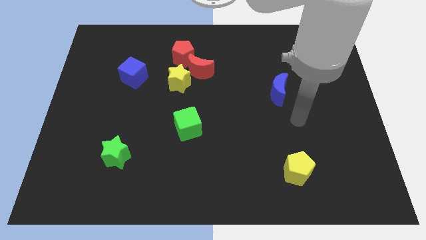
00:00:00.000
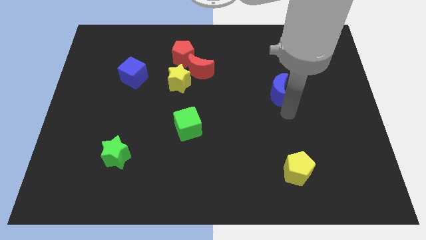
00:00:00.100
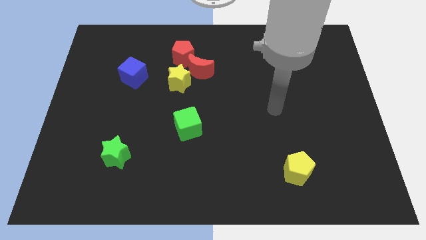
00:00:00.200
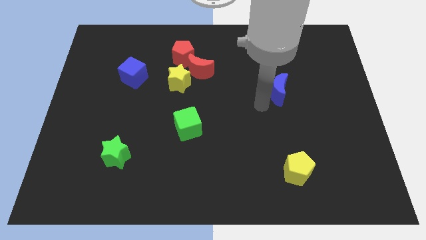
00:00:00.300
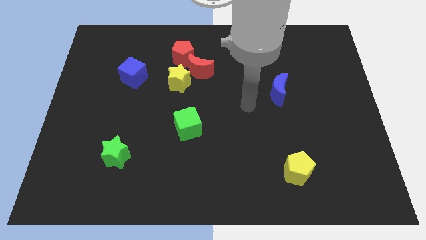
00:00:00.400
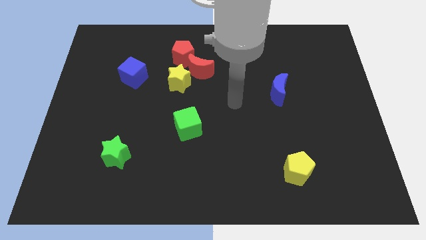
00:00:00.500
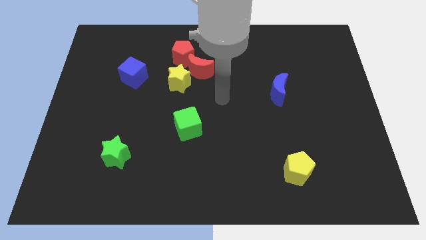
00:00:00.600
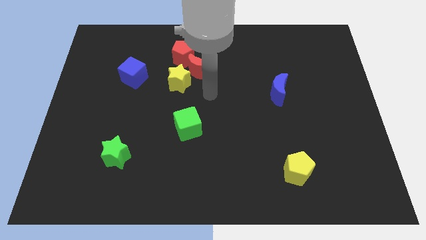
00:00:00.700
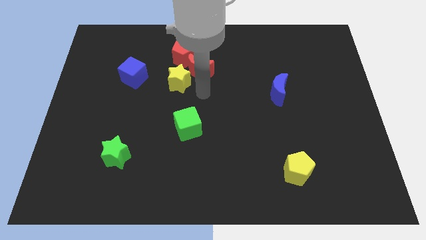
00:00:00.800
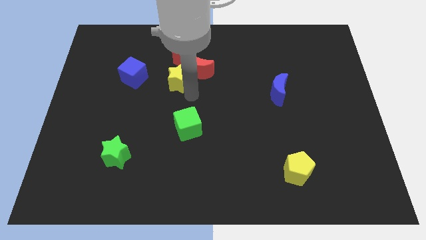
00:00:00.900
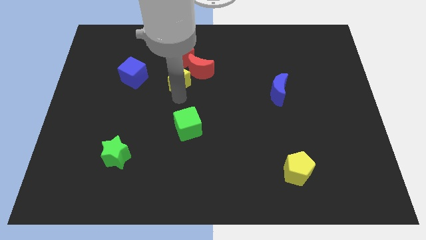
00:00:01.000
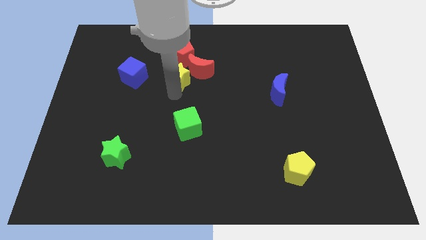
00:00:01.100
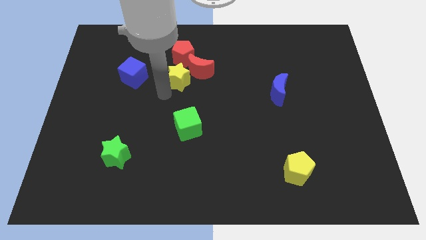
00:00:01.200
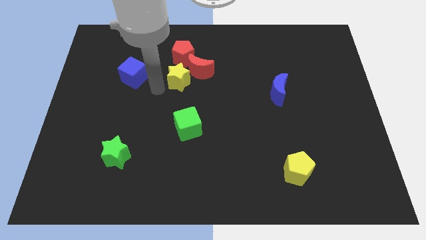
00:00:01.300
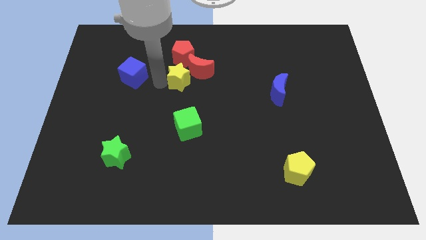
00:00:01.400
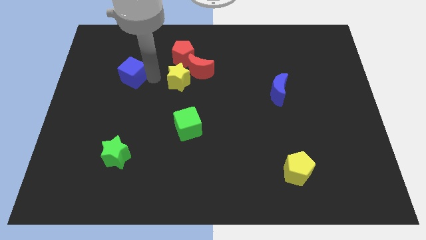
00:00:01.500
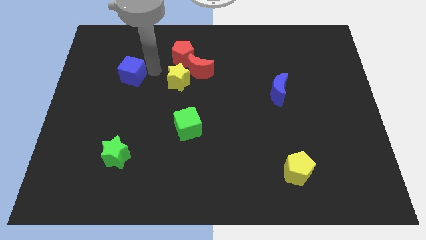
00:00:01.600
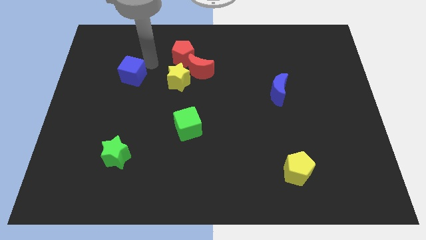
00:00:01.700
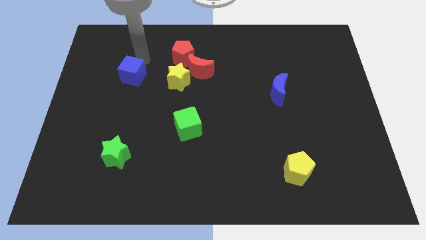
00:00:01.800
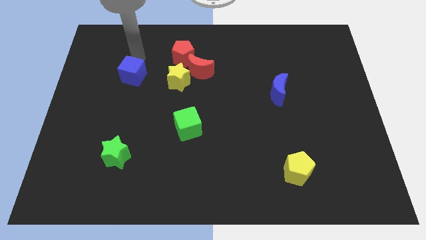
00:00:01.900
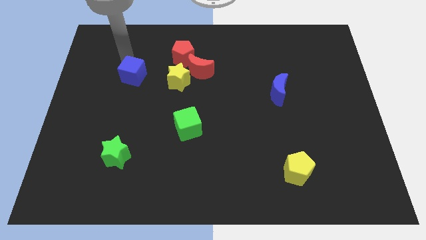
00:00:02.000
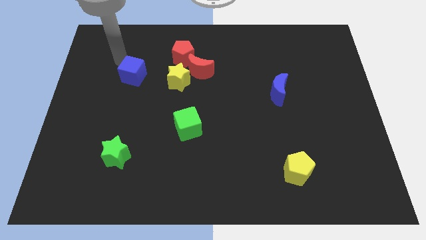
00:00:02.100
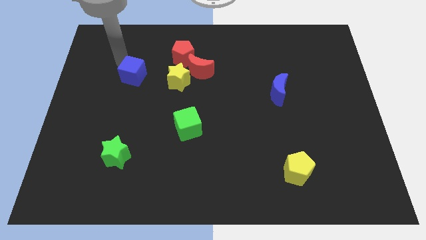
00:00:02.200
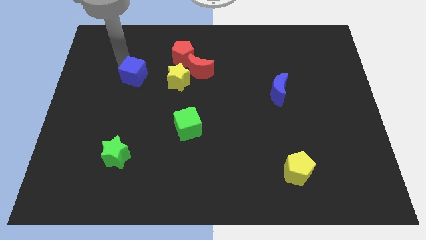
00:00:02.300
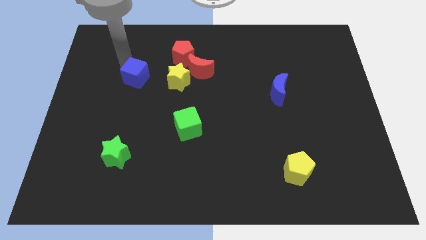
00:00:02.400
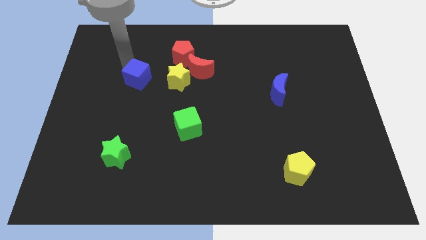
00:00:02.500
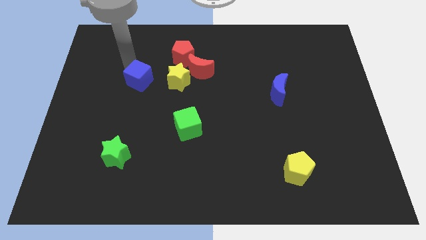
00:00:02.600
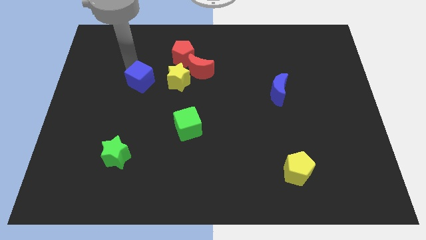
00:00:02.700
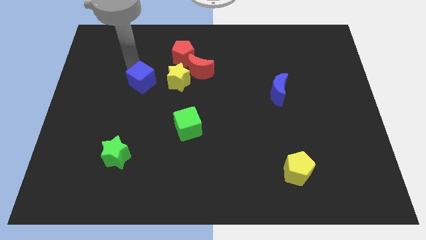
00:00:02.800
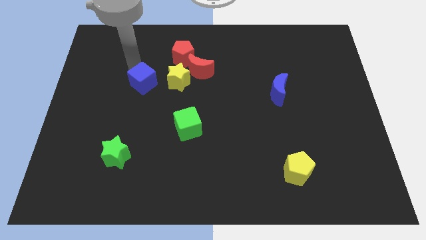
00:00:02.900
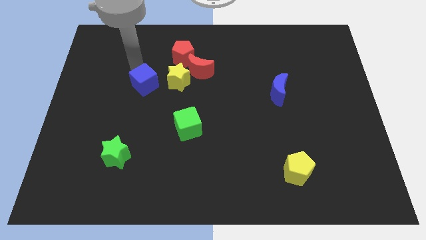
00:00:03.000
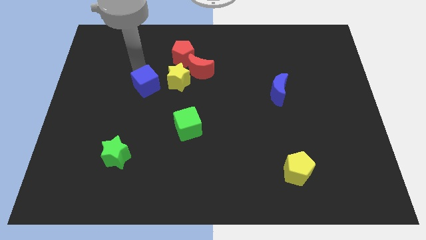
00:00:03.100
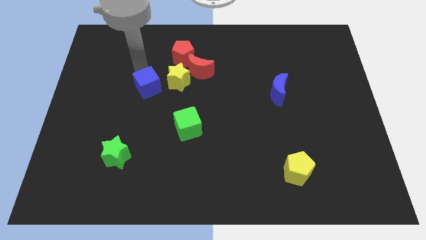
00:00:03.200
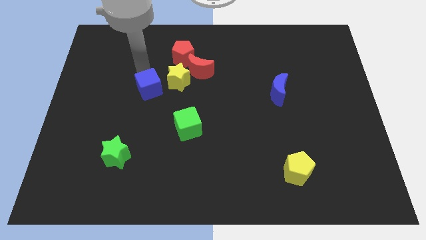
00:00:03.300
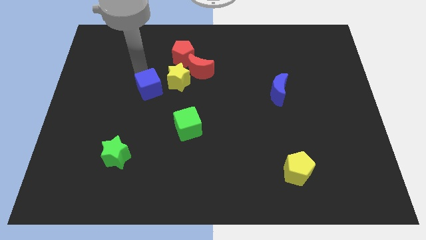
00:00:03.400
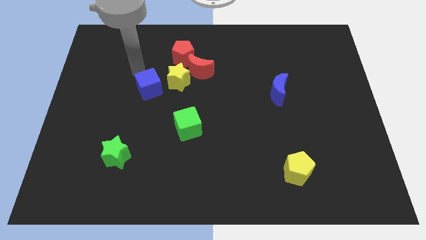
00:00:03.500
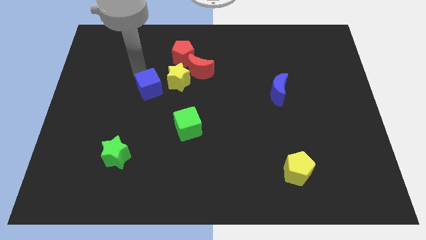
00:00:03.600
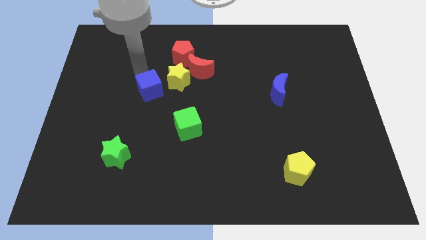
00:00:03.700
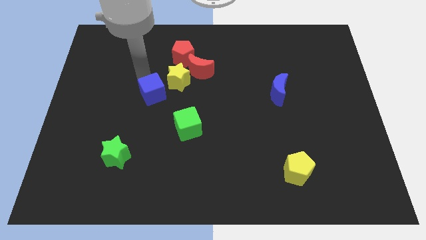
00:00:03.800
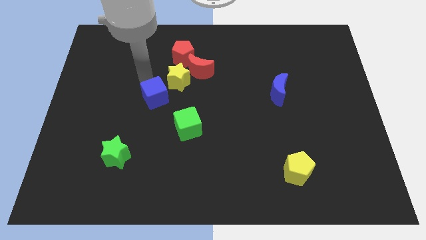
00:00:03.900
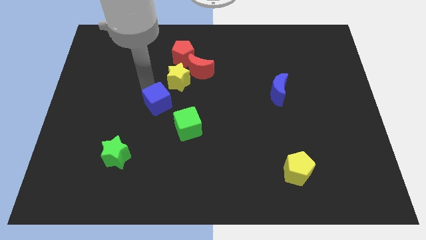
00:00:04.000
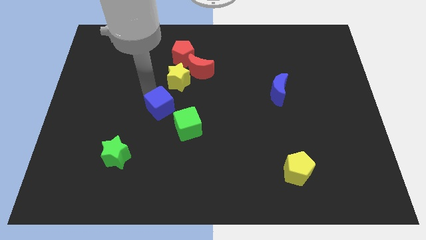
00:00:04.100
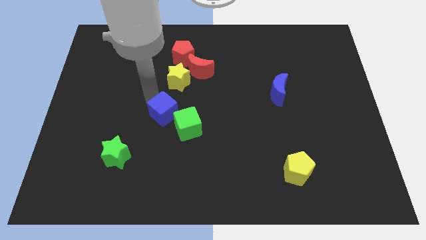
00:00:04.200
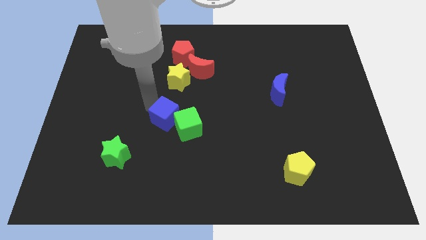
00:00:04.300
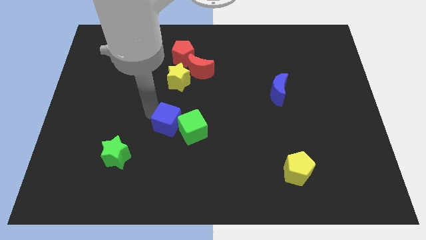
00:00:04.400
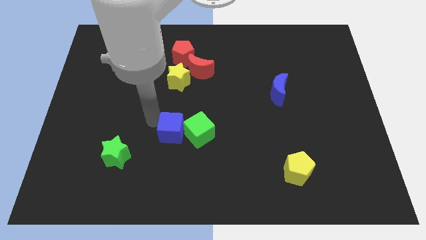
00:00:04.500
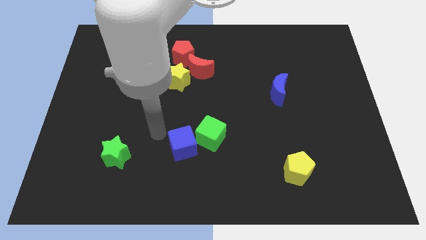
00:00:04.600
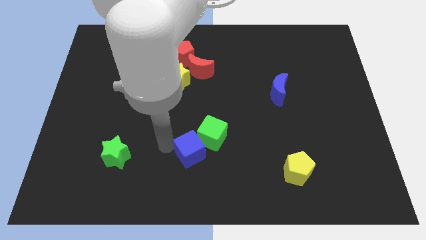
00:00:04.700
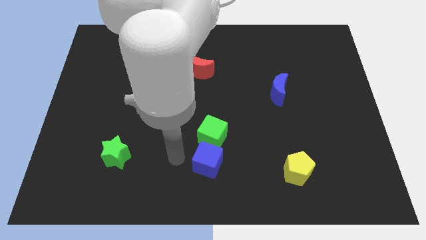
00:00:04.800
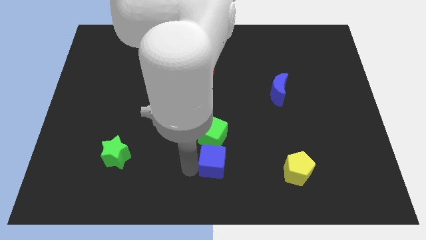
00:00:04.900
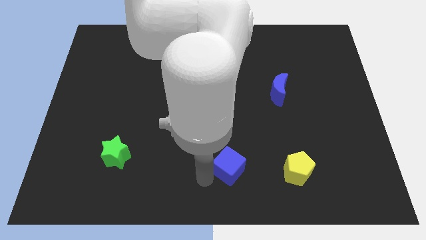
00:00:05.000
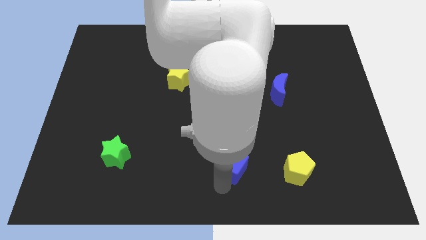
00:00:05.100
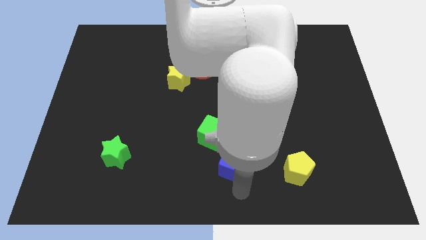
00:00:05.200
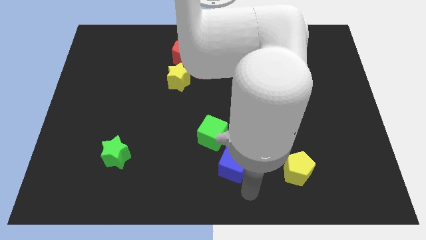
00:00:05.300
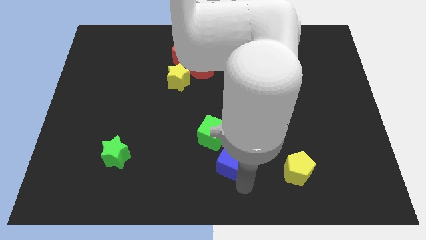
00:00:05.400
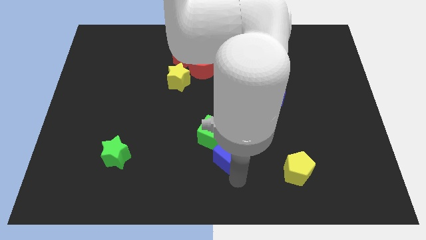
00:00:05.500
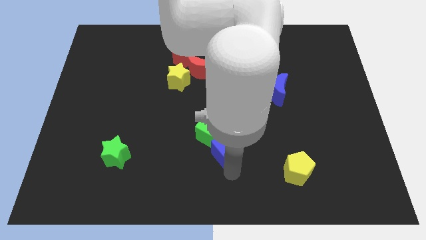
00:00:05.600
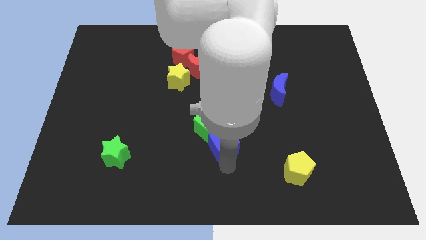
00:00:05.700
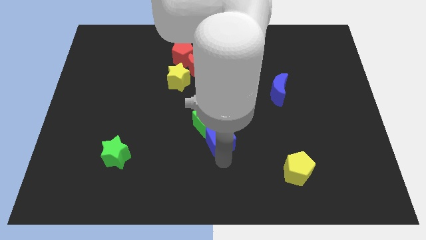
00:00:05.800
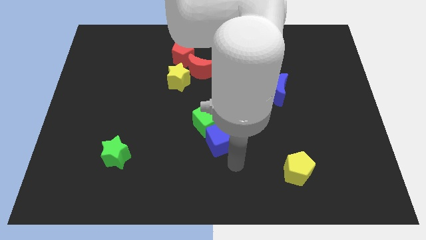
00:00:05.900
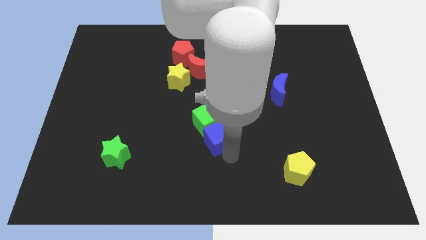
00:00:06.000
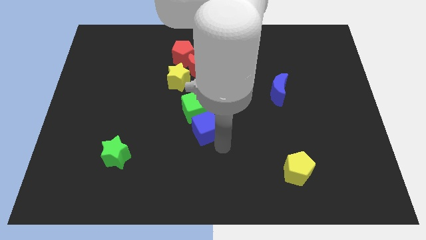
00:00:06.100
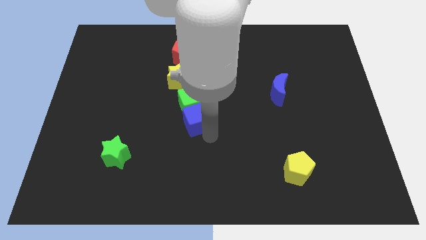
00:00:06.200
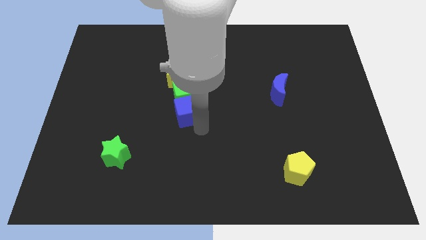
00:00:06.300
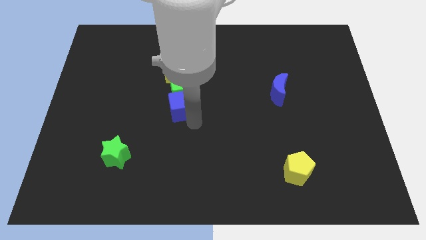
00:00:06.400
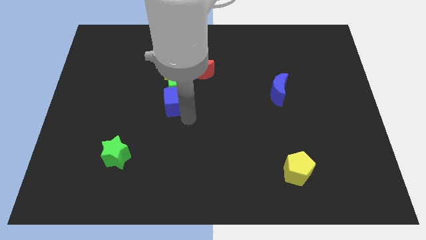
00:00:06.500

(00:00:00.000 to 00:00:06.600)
slide the blue cube to the bottom side of the red pentagon
